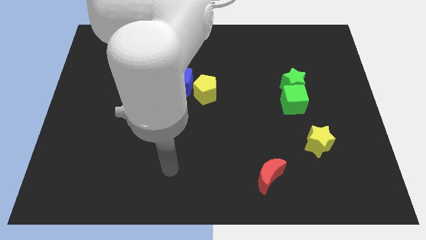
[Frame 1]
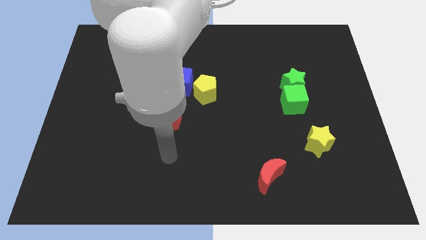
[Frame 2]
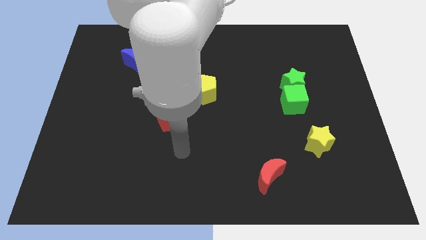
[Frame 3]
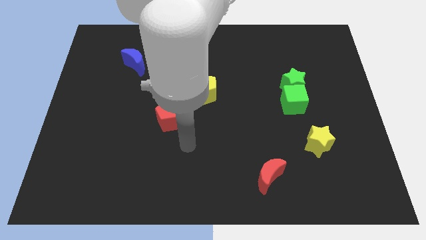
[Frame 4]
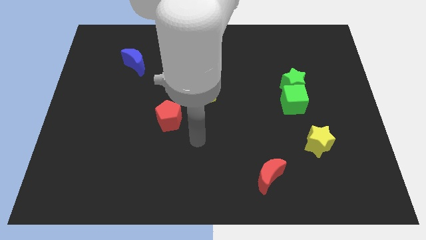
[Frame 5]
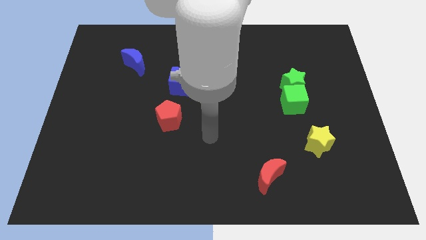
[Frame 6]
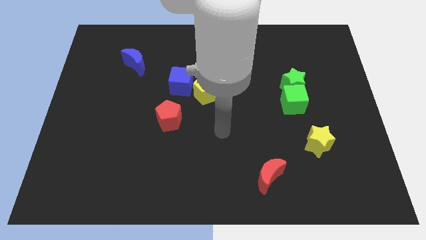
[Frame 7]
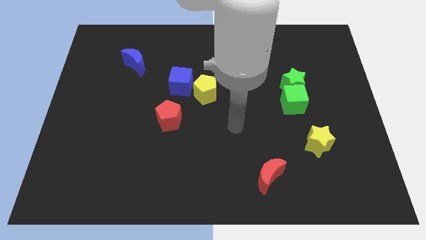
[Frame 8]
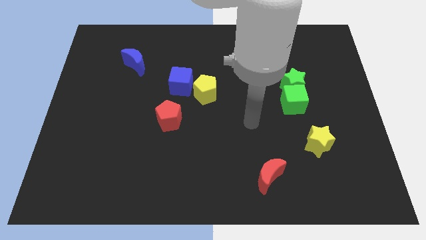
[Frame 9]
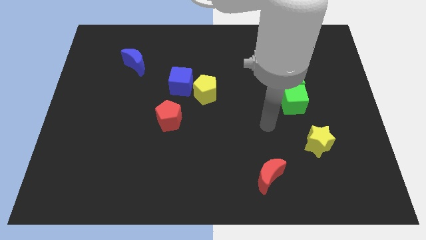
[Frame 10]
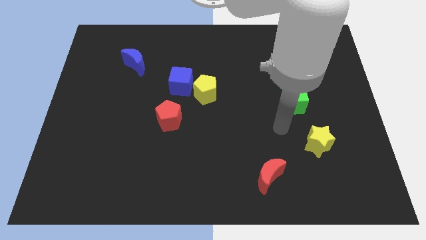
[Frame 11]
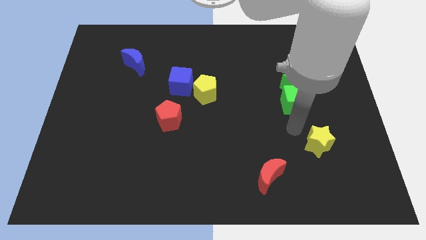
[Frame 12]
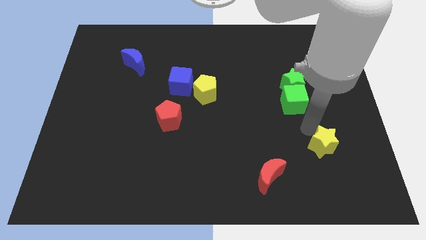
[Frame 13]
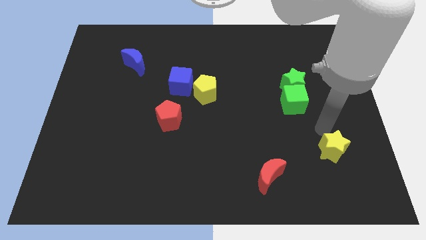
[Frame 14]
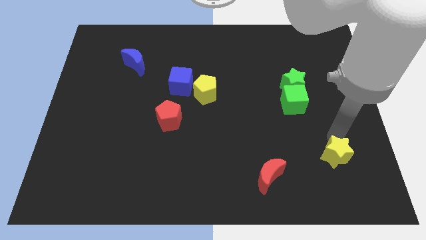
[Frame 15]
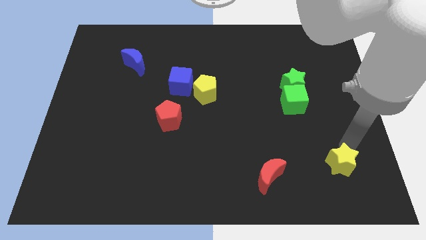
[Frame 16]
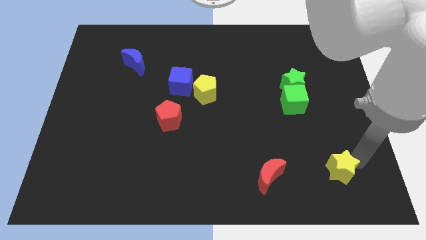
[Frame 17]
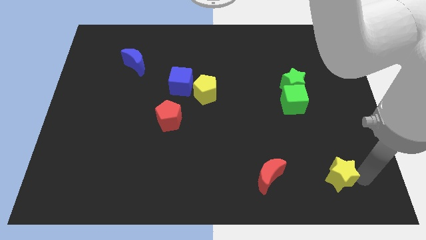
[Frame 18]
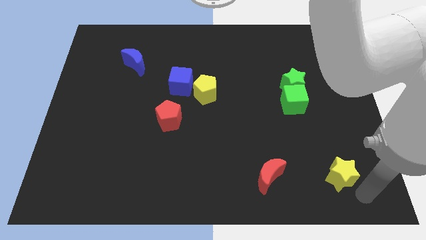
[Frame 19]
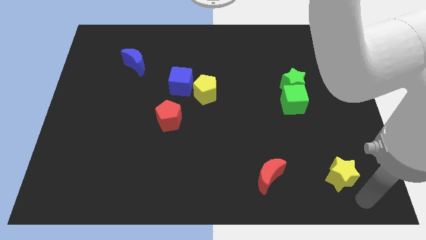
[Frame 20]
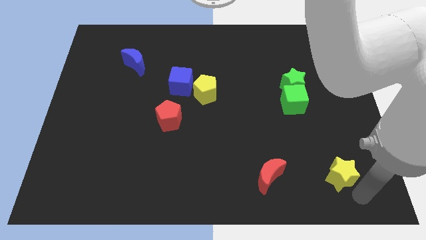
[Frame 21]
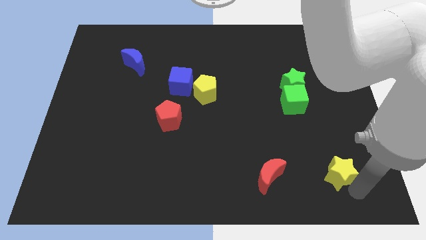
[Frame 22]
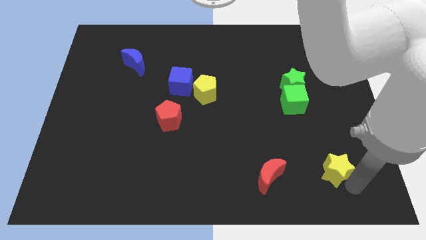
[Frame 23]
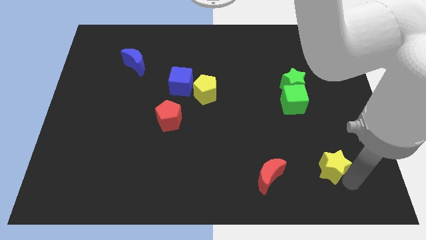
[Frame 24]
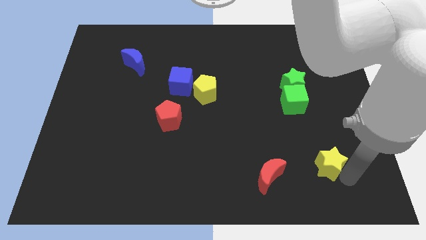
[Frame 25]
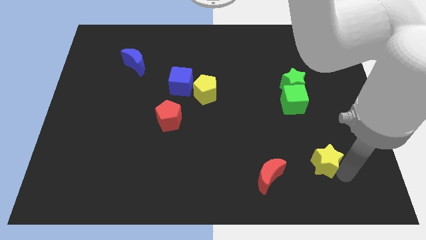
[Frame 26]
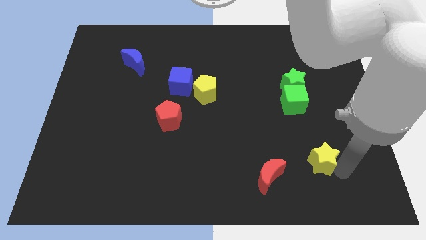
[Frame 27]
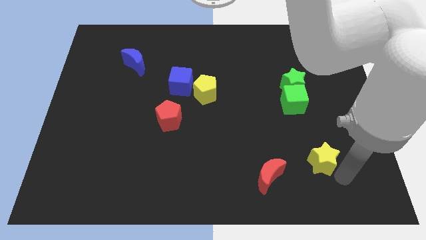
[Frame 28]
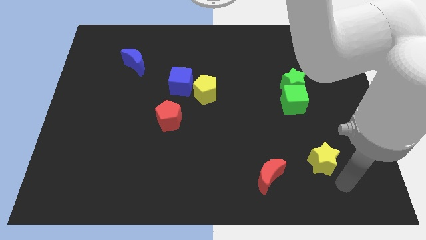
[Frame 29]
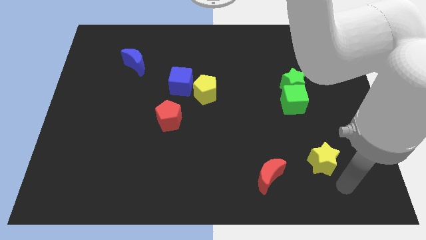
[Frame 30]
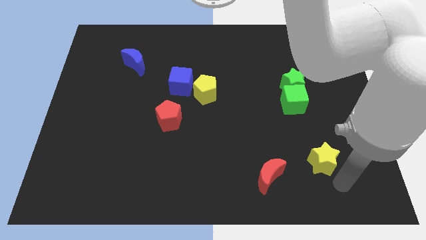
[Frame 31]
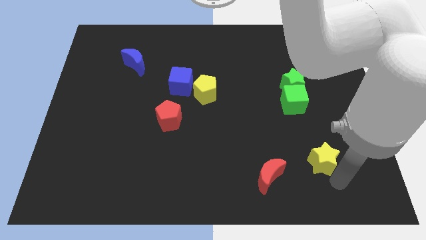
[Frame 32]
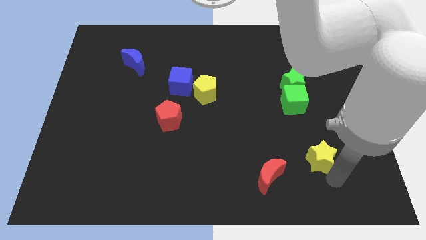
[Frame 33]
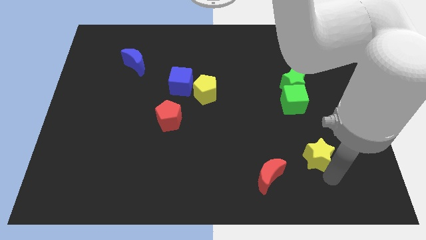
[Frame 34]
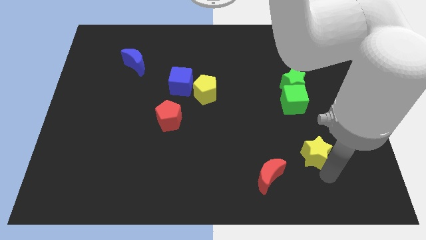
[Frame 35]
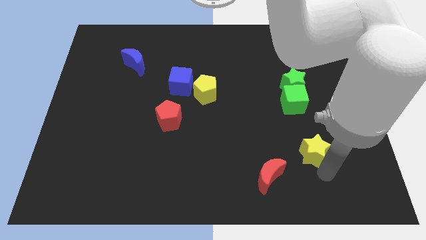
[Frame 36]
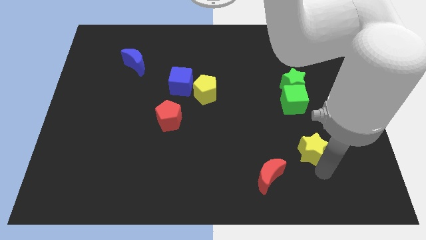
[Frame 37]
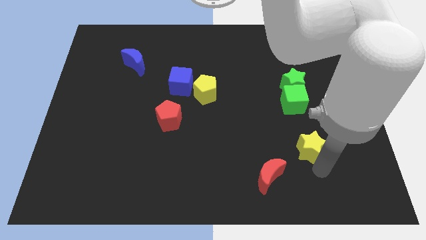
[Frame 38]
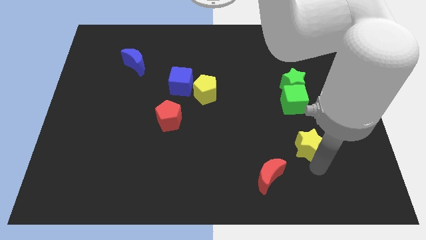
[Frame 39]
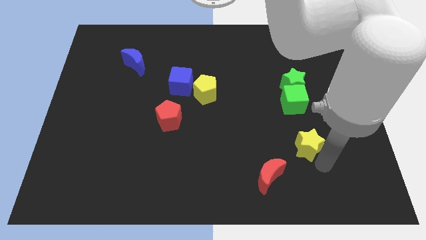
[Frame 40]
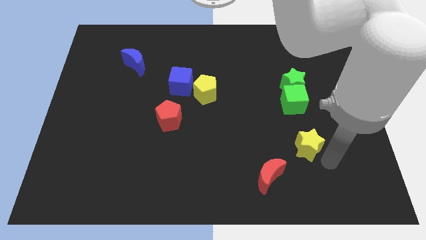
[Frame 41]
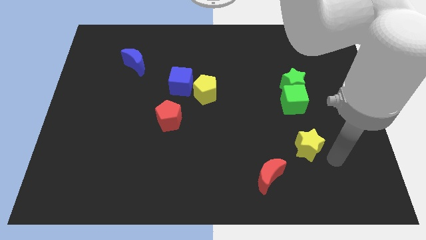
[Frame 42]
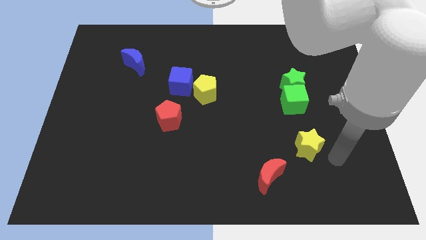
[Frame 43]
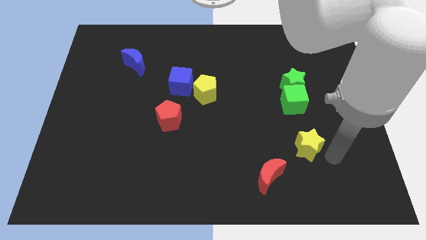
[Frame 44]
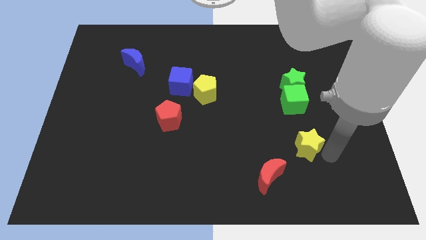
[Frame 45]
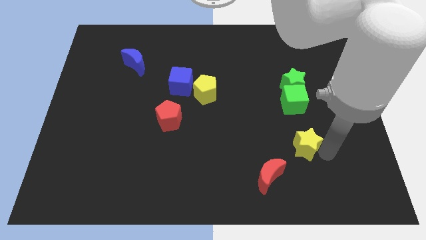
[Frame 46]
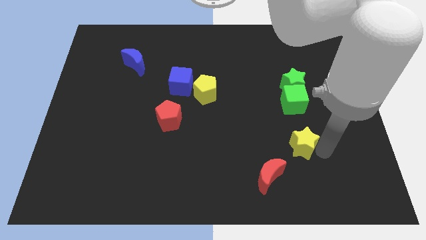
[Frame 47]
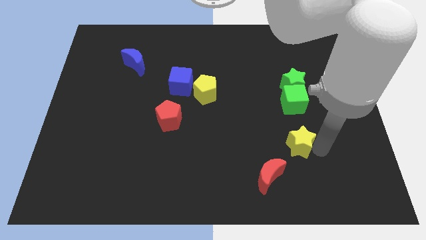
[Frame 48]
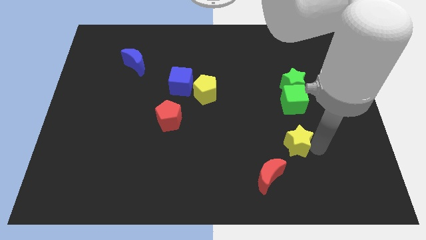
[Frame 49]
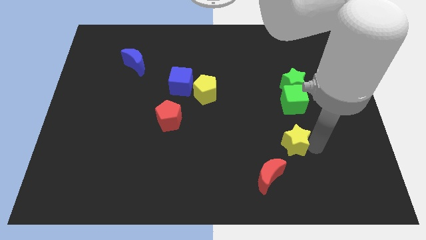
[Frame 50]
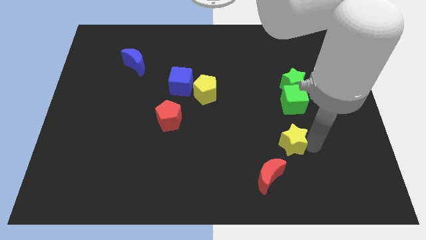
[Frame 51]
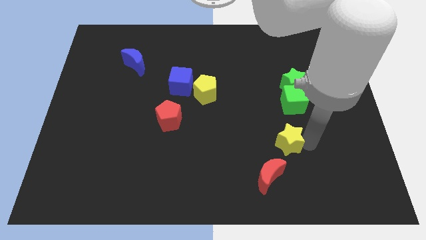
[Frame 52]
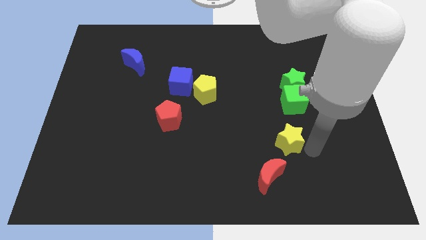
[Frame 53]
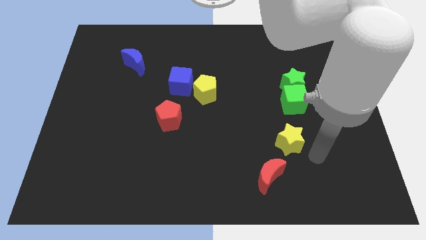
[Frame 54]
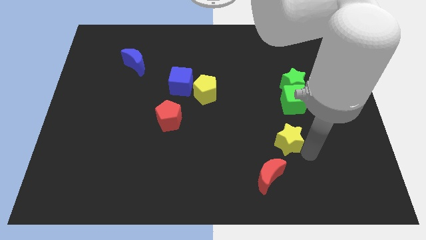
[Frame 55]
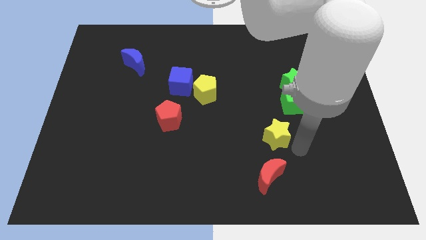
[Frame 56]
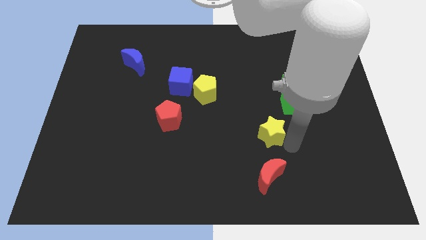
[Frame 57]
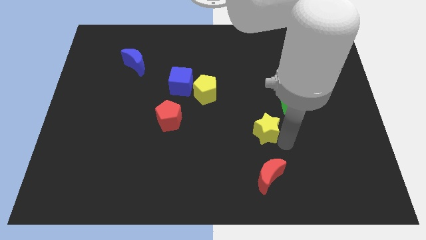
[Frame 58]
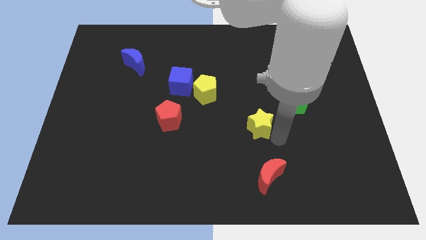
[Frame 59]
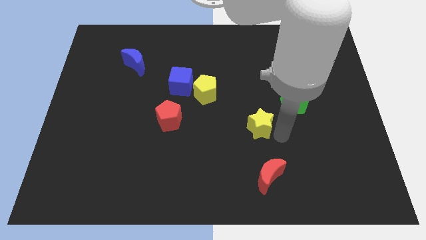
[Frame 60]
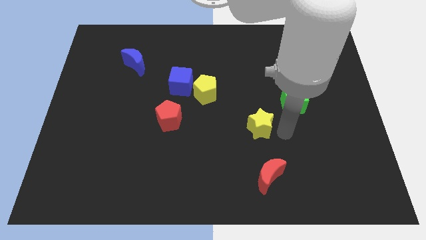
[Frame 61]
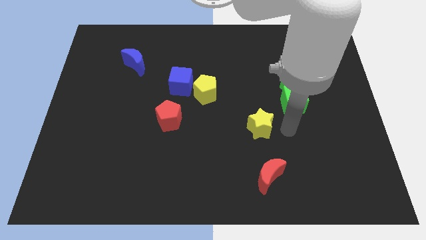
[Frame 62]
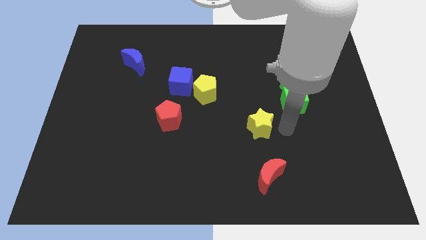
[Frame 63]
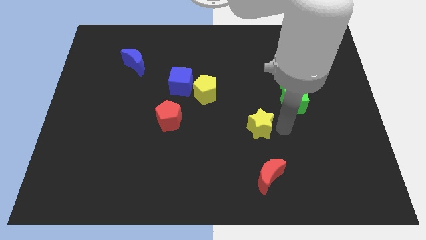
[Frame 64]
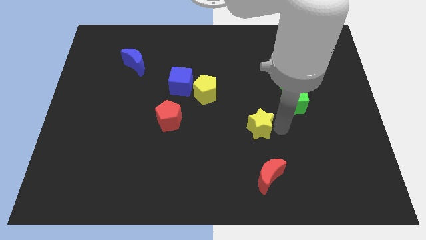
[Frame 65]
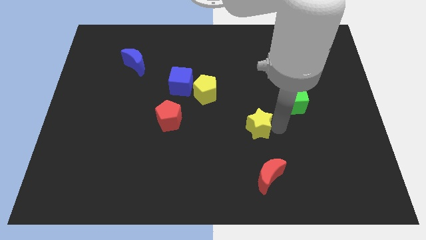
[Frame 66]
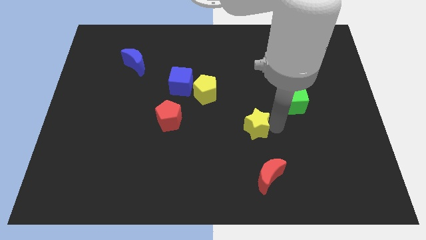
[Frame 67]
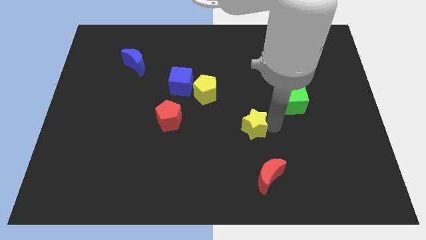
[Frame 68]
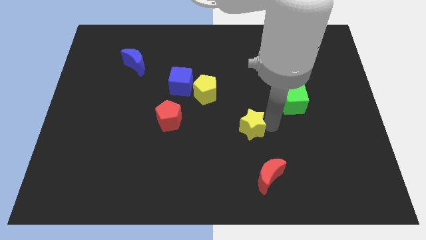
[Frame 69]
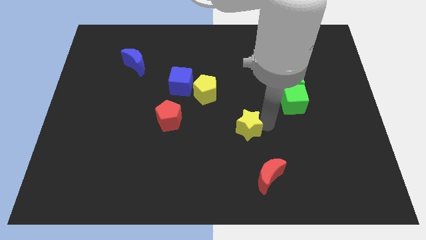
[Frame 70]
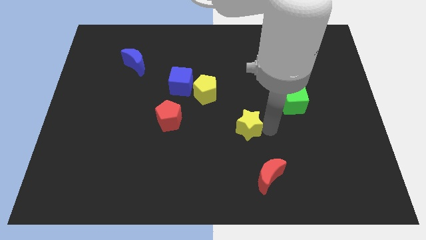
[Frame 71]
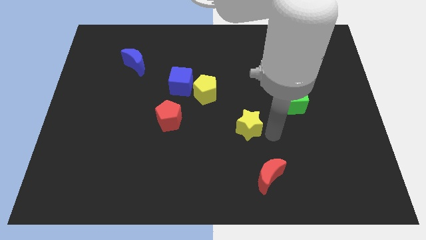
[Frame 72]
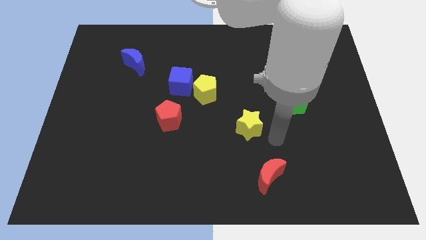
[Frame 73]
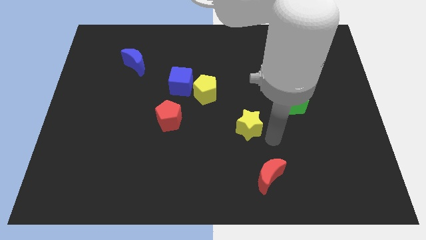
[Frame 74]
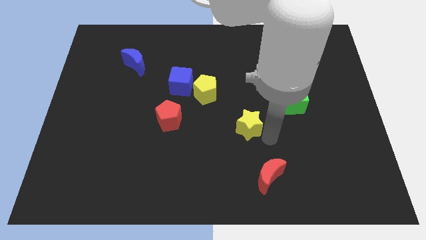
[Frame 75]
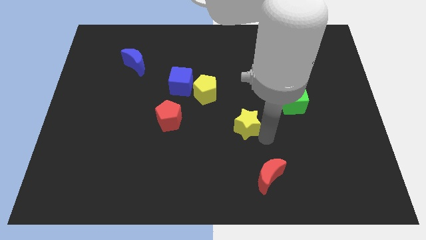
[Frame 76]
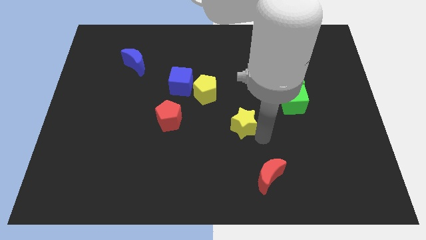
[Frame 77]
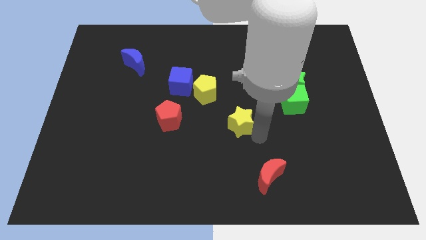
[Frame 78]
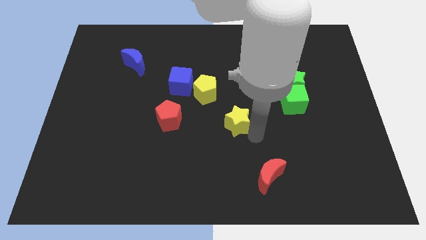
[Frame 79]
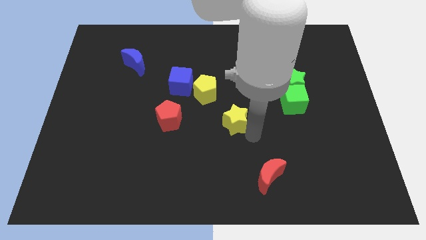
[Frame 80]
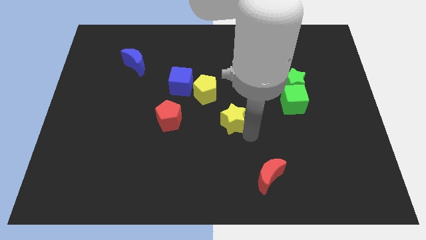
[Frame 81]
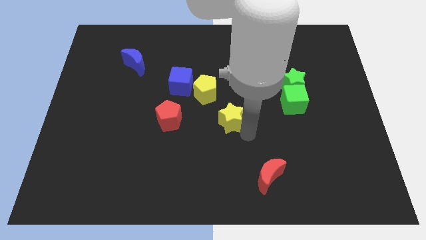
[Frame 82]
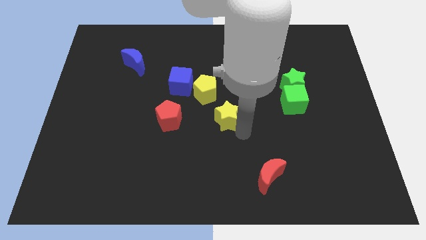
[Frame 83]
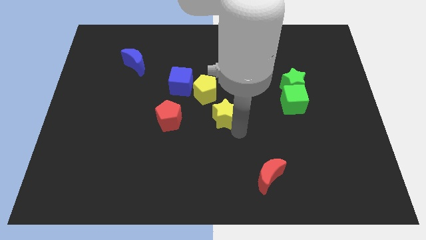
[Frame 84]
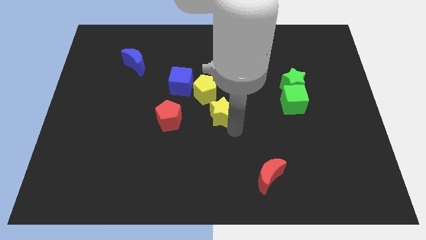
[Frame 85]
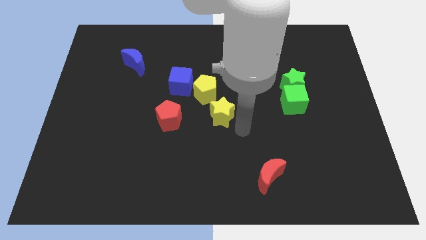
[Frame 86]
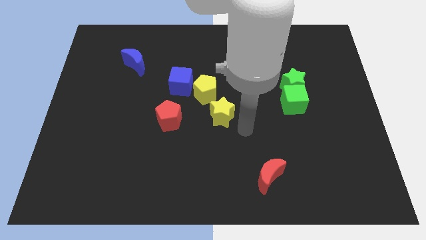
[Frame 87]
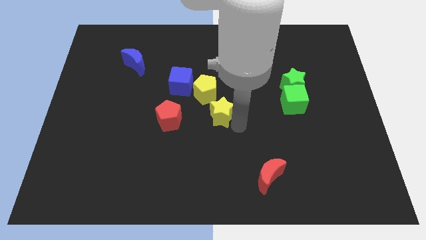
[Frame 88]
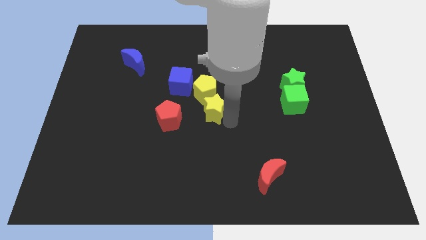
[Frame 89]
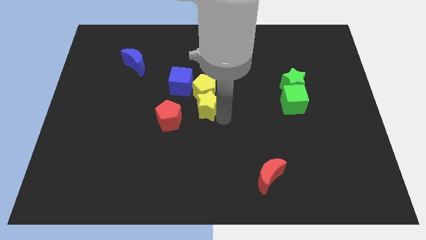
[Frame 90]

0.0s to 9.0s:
move the yellow star to the top right of the red pentagon
